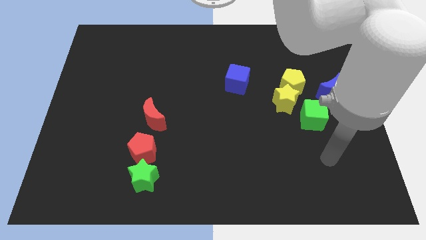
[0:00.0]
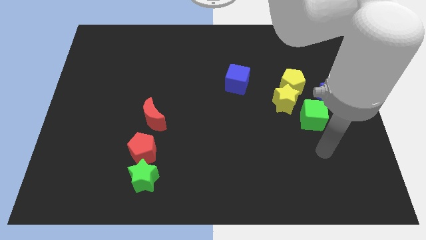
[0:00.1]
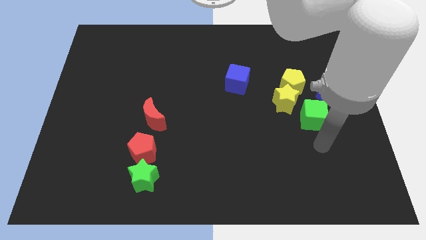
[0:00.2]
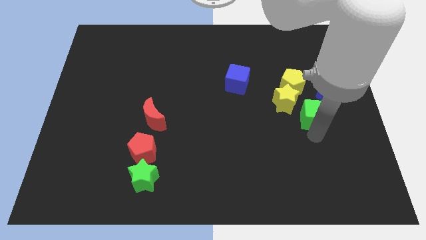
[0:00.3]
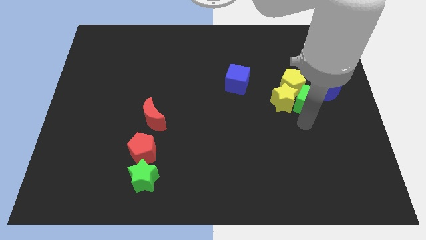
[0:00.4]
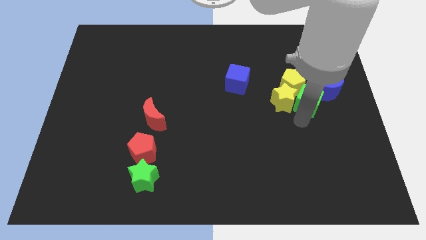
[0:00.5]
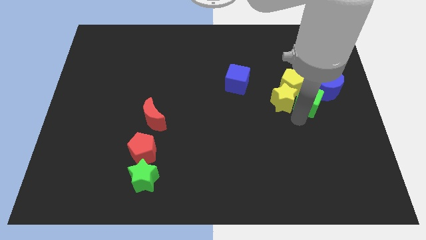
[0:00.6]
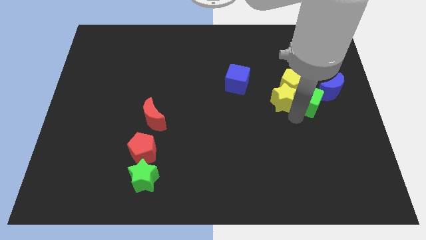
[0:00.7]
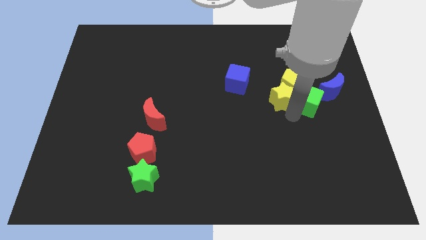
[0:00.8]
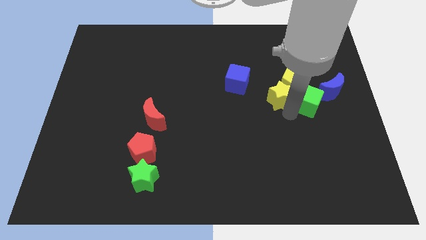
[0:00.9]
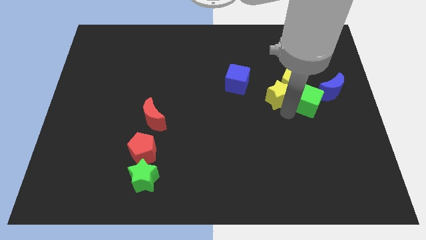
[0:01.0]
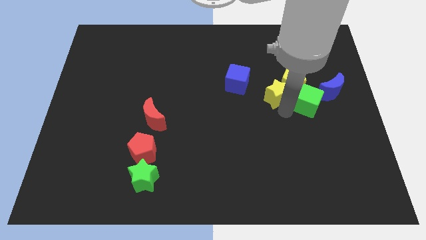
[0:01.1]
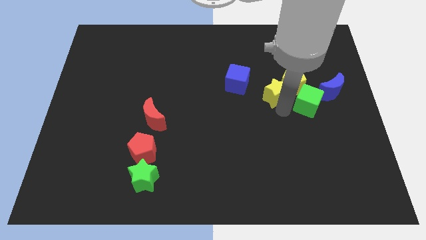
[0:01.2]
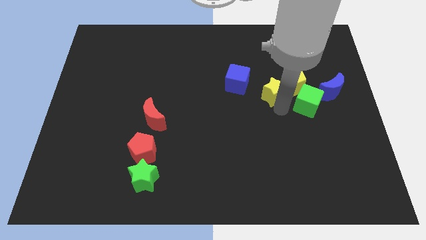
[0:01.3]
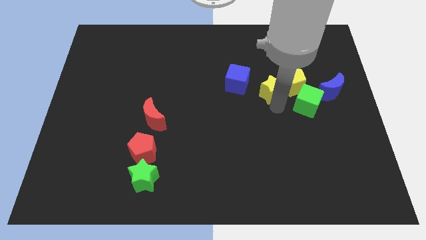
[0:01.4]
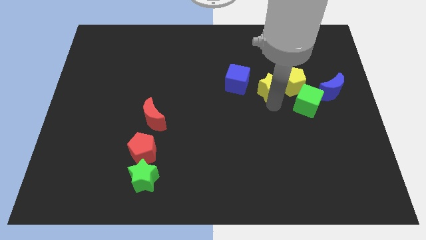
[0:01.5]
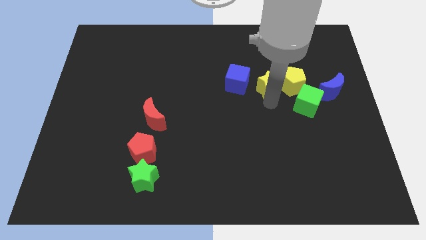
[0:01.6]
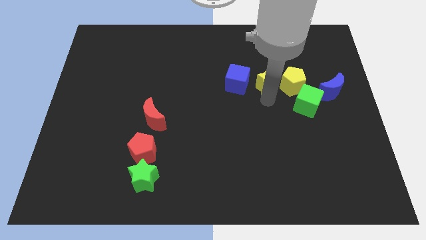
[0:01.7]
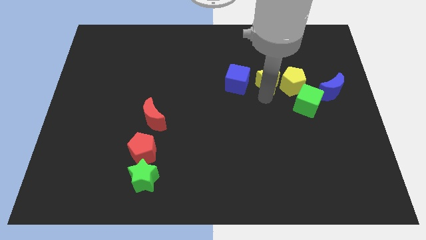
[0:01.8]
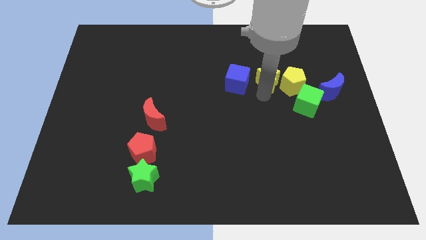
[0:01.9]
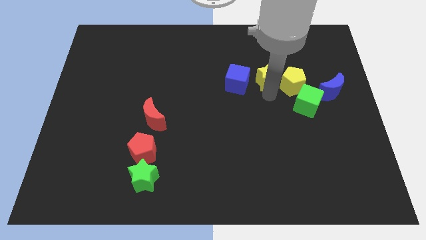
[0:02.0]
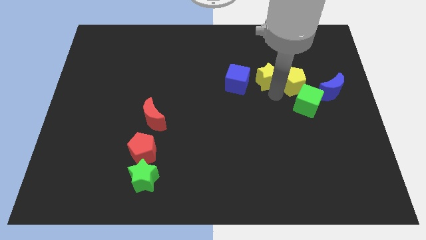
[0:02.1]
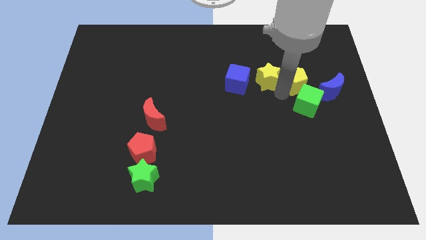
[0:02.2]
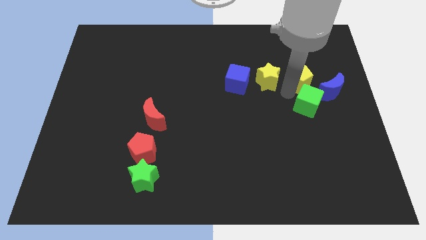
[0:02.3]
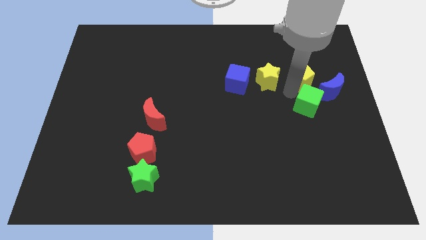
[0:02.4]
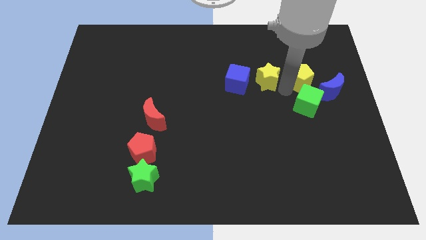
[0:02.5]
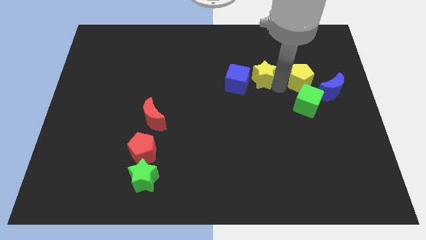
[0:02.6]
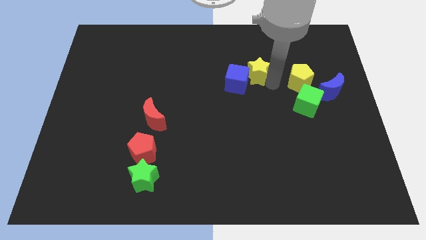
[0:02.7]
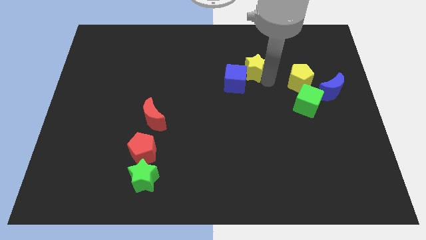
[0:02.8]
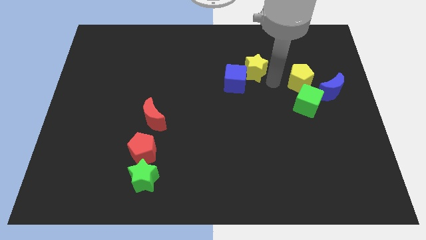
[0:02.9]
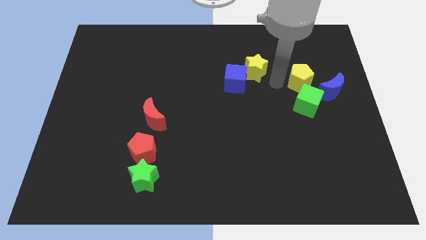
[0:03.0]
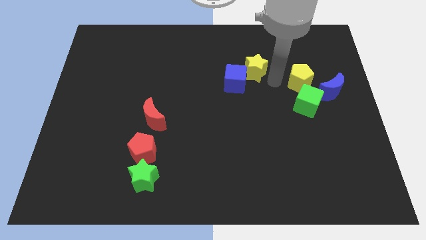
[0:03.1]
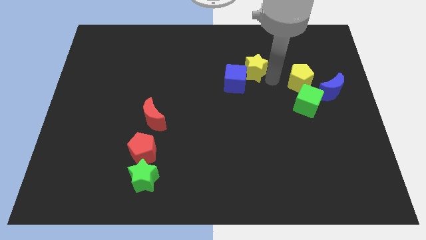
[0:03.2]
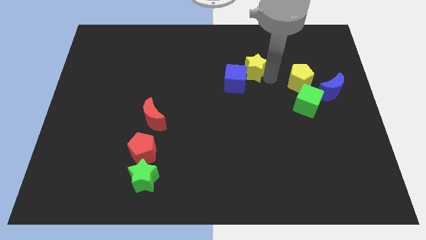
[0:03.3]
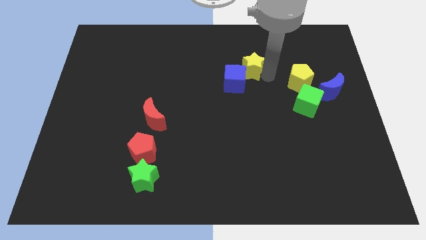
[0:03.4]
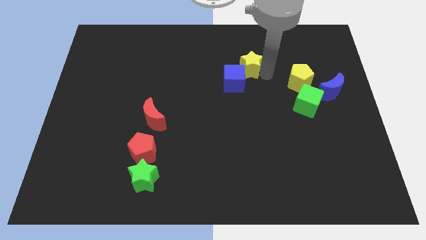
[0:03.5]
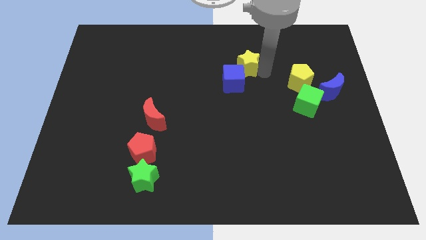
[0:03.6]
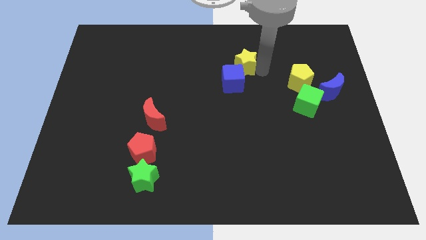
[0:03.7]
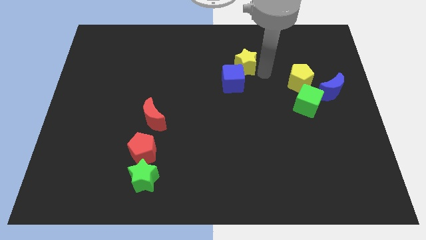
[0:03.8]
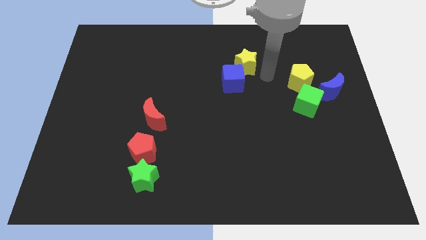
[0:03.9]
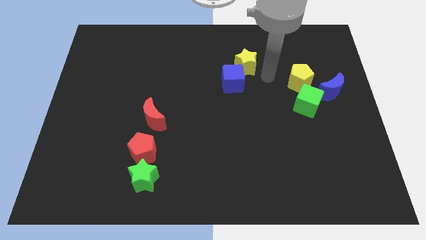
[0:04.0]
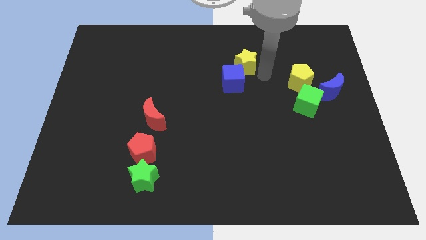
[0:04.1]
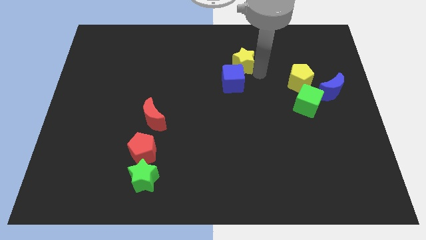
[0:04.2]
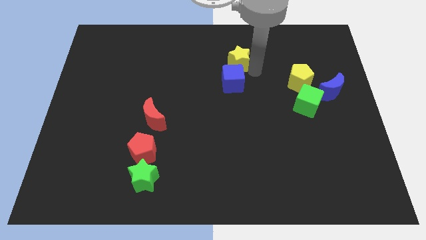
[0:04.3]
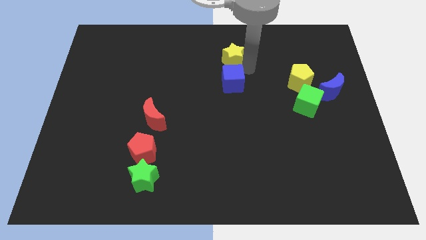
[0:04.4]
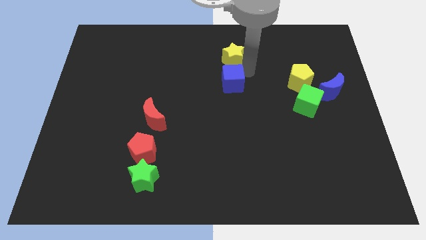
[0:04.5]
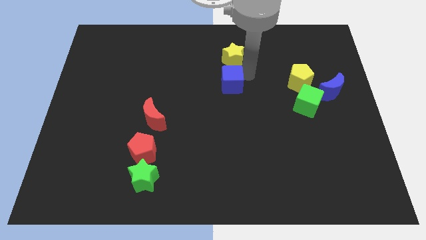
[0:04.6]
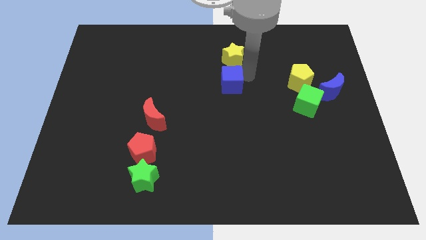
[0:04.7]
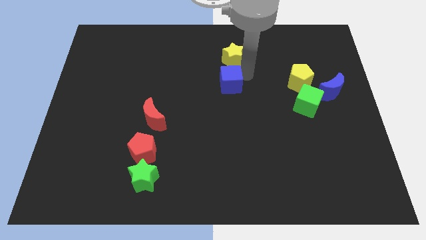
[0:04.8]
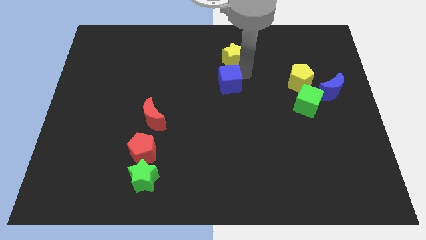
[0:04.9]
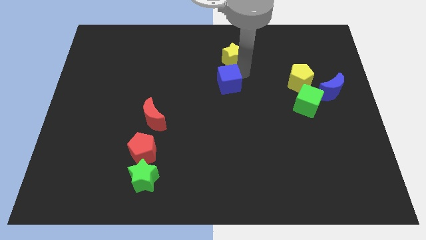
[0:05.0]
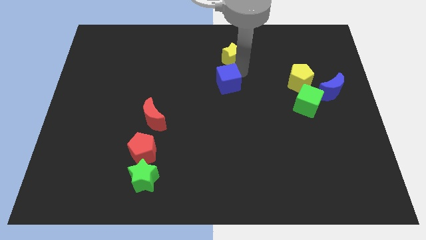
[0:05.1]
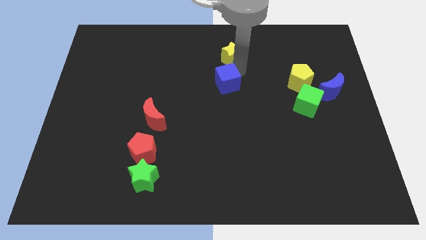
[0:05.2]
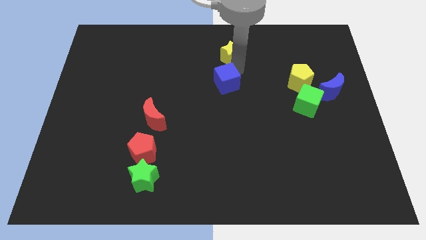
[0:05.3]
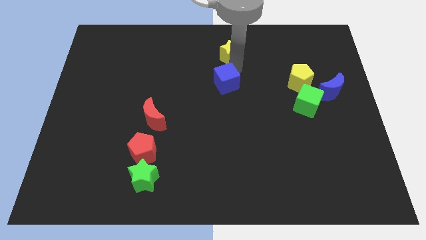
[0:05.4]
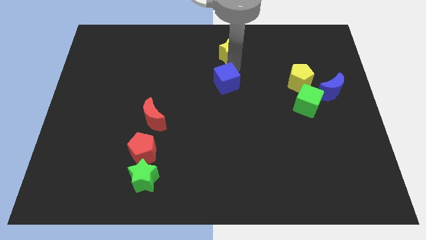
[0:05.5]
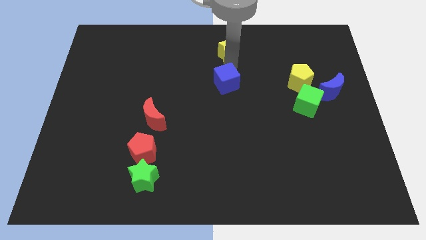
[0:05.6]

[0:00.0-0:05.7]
put the yellow star to the top

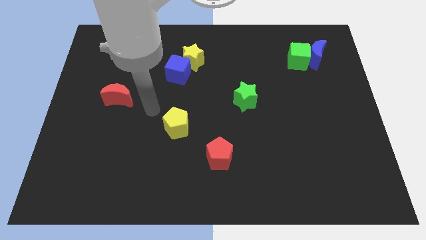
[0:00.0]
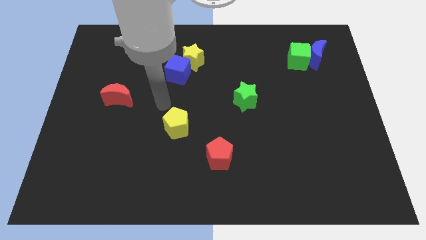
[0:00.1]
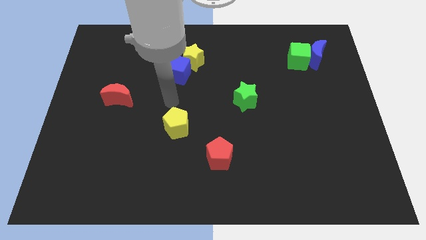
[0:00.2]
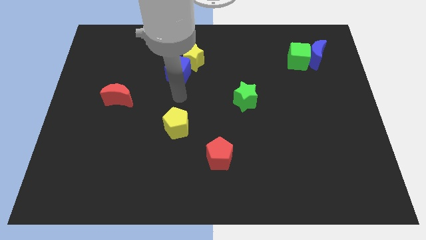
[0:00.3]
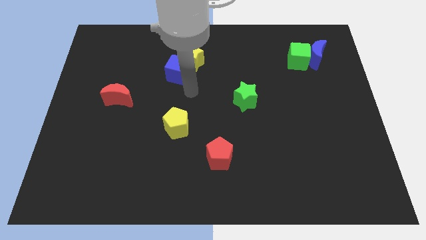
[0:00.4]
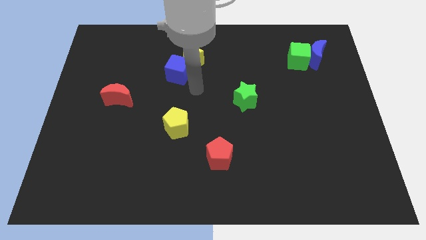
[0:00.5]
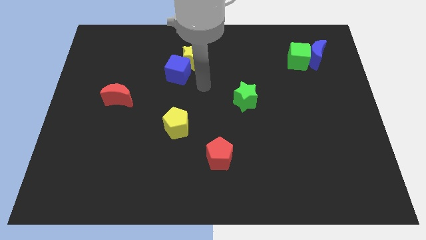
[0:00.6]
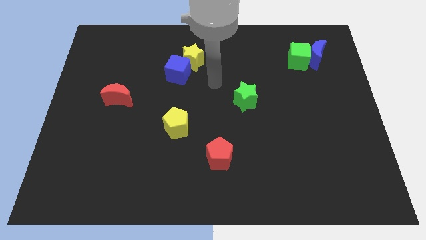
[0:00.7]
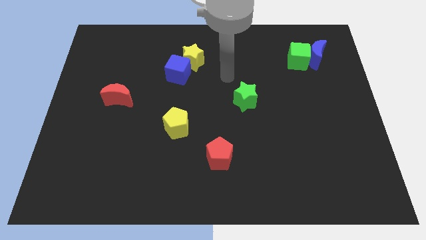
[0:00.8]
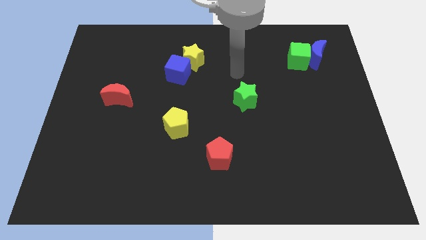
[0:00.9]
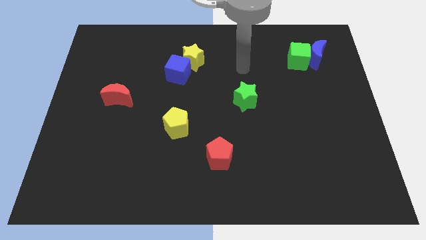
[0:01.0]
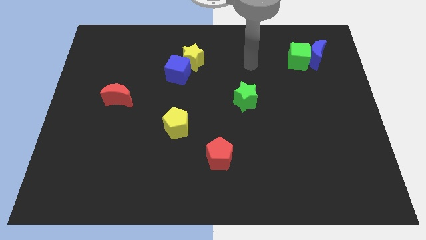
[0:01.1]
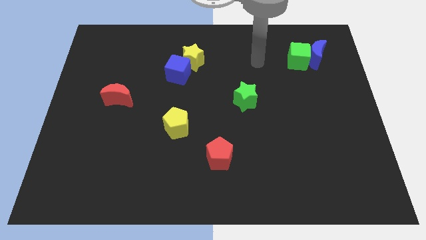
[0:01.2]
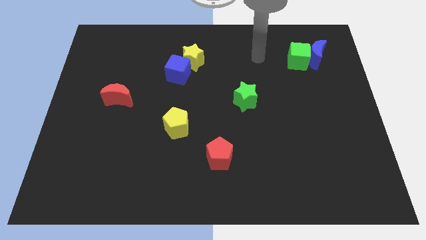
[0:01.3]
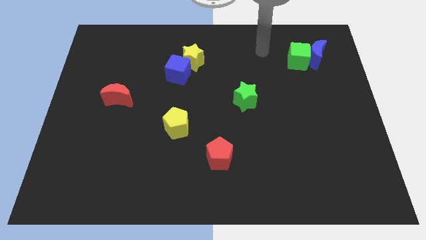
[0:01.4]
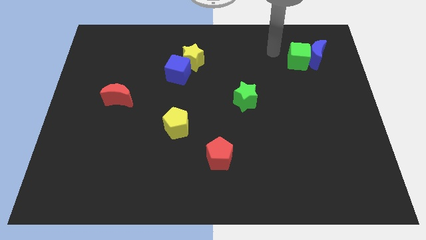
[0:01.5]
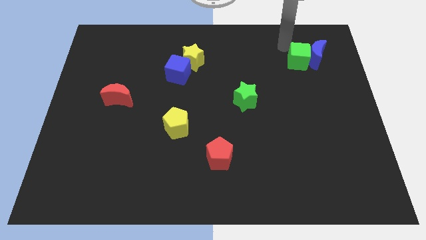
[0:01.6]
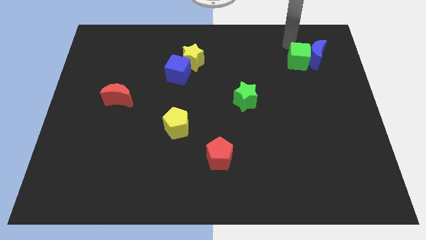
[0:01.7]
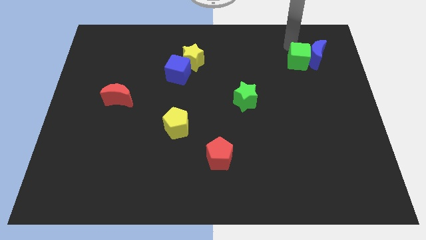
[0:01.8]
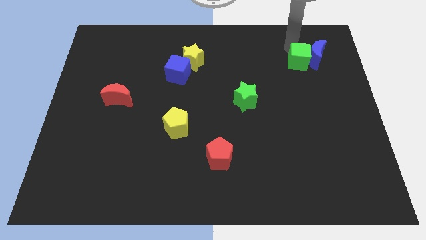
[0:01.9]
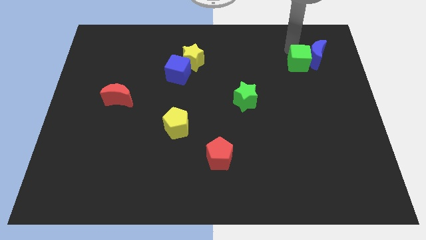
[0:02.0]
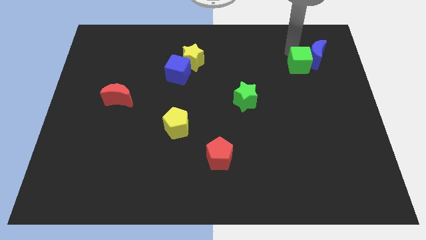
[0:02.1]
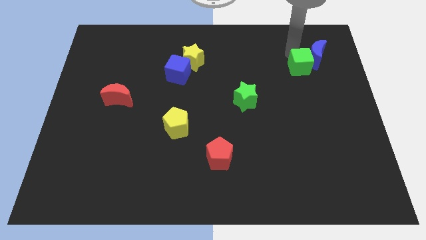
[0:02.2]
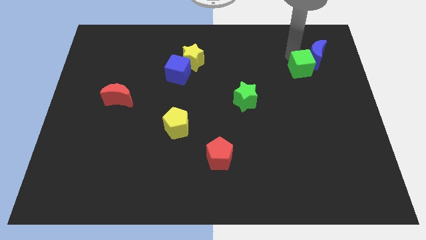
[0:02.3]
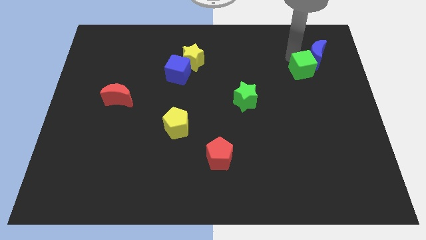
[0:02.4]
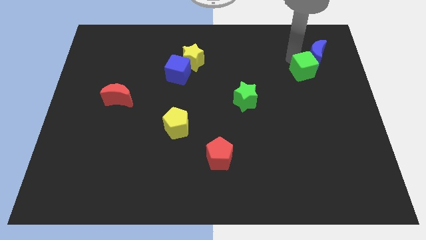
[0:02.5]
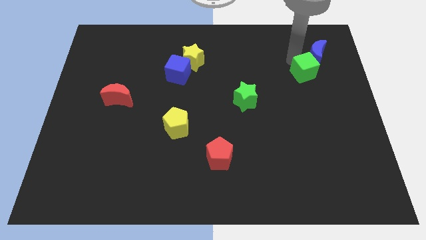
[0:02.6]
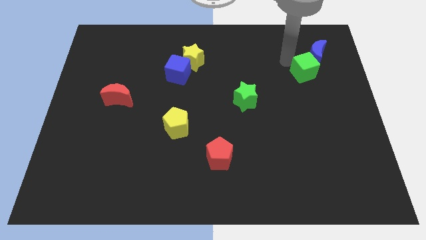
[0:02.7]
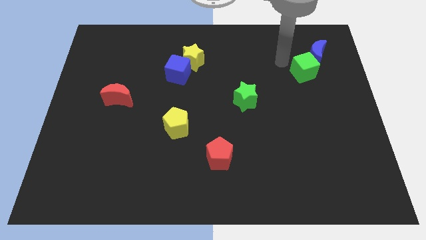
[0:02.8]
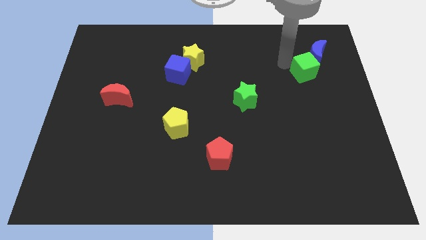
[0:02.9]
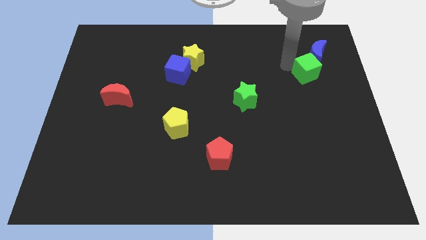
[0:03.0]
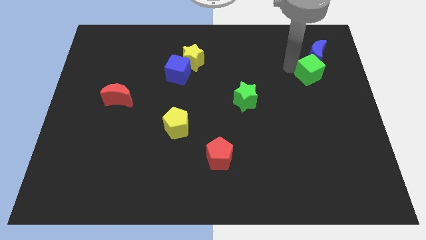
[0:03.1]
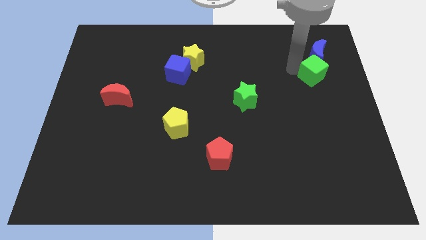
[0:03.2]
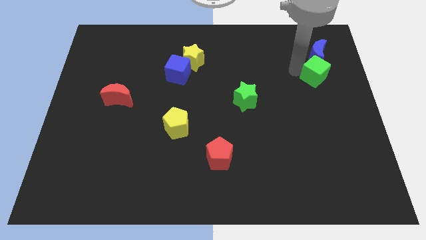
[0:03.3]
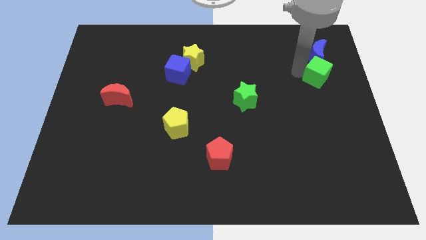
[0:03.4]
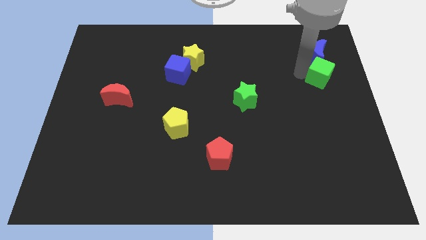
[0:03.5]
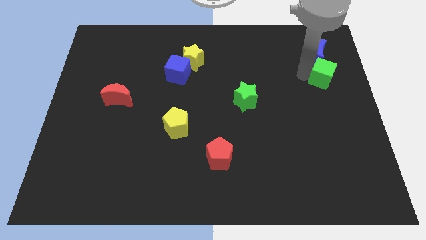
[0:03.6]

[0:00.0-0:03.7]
slide the green cube to the right side
